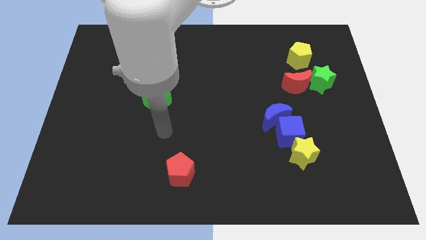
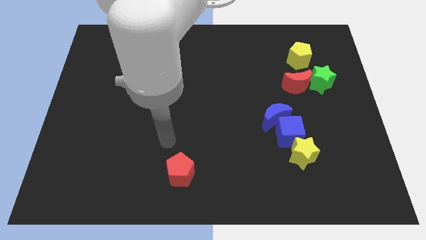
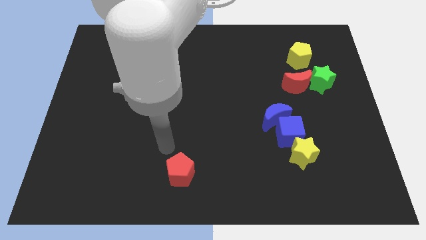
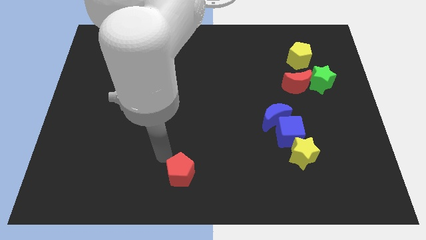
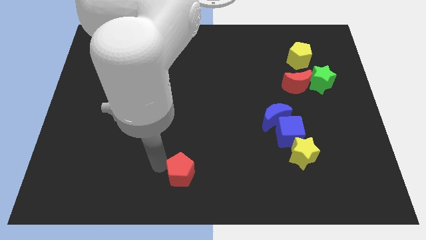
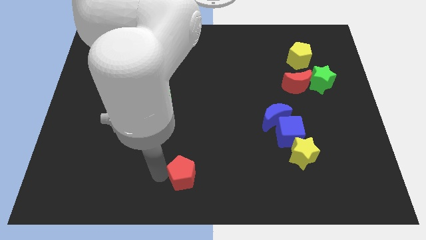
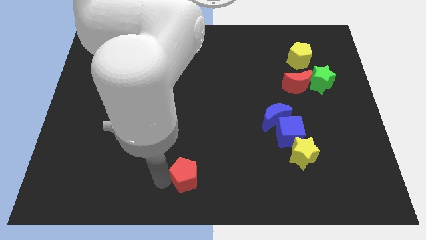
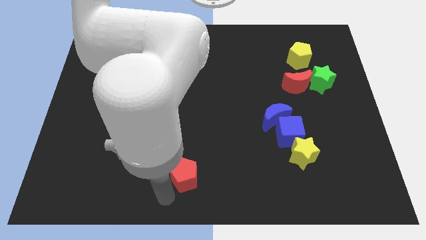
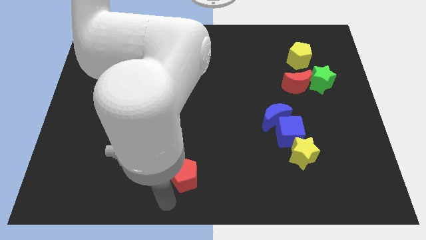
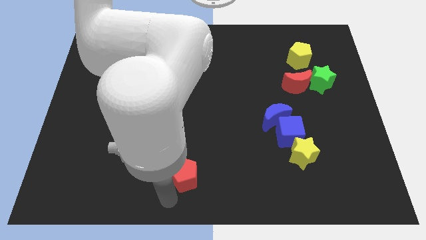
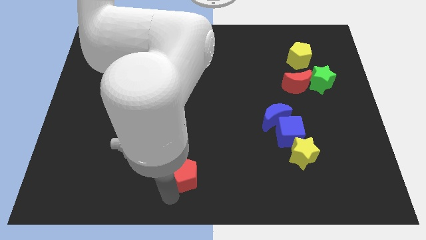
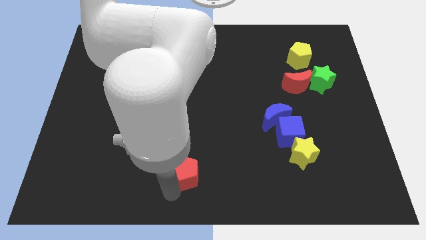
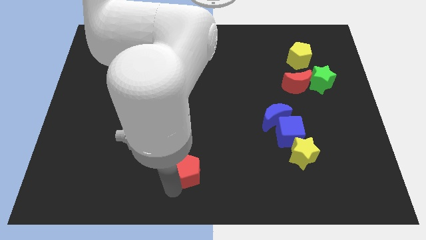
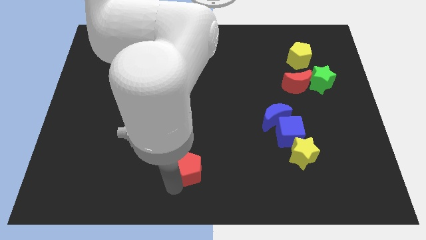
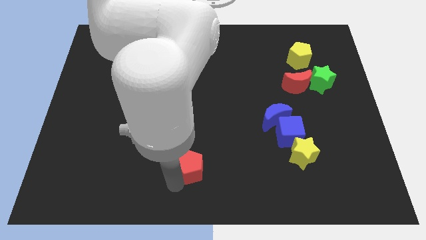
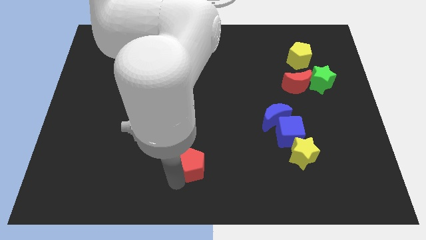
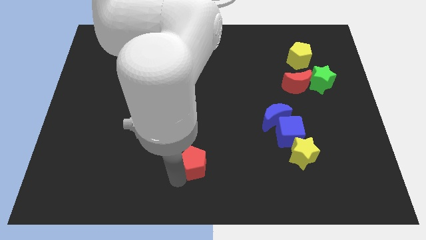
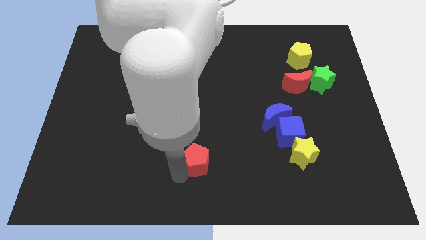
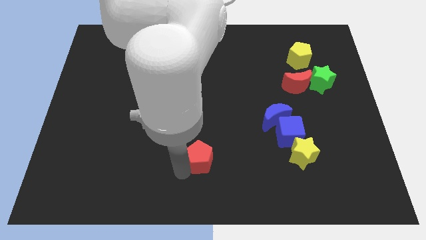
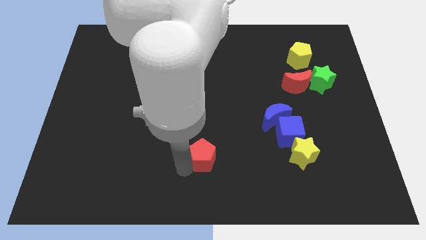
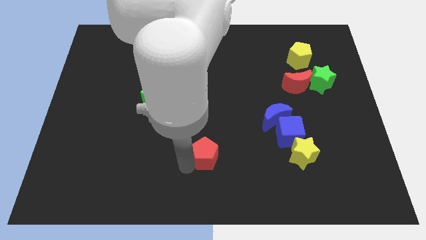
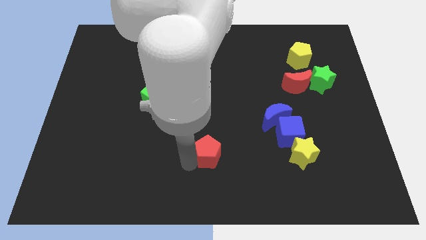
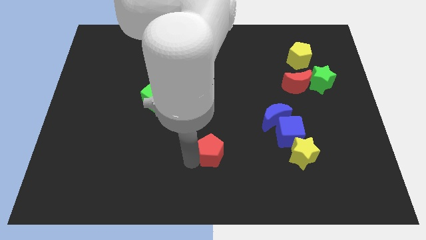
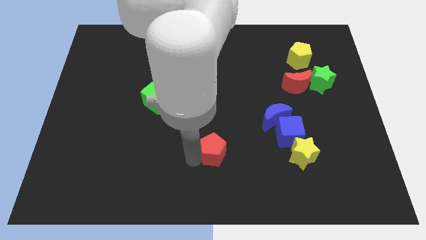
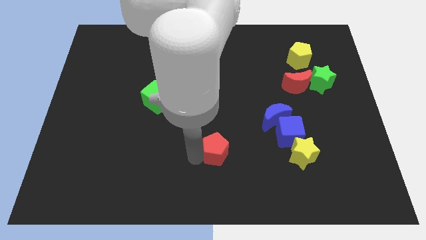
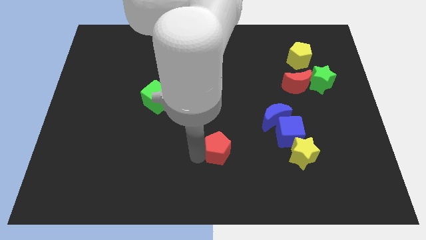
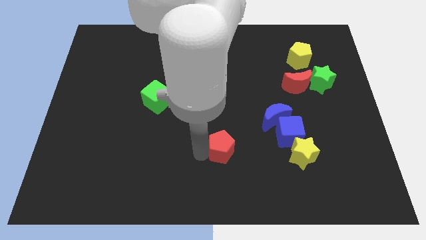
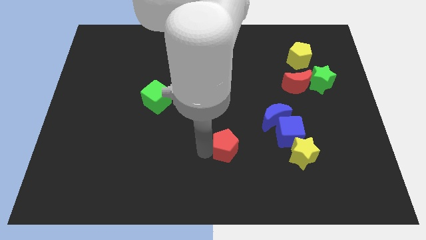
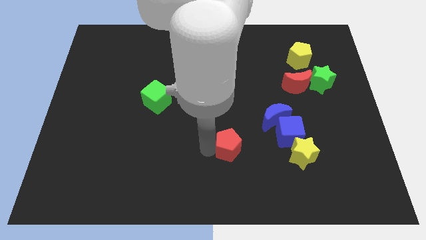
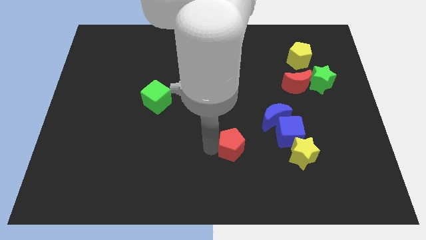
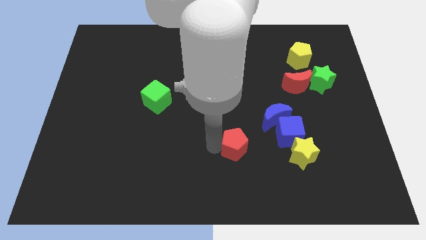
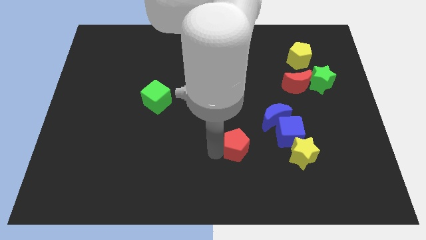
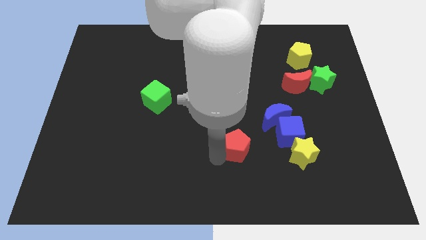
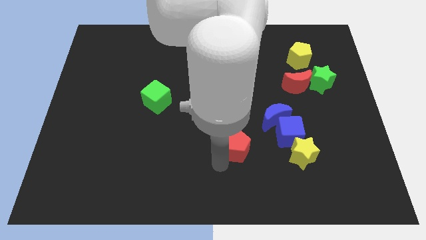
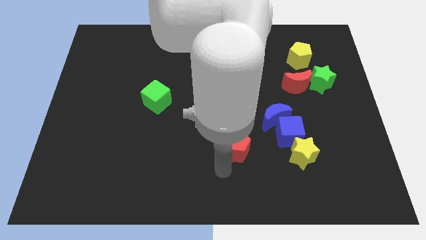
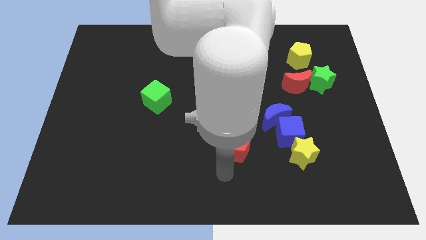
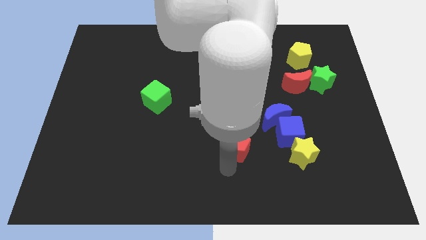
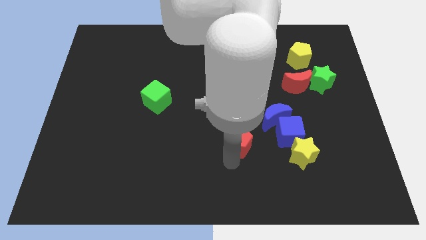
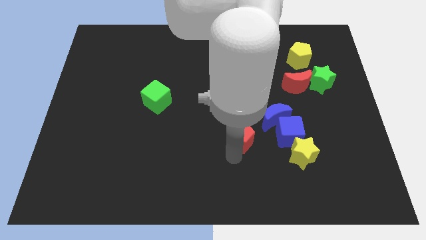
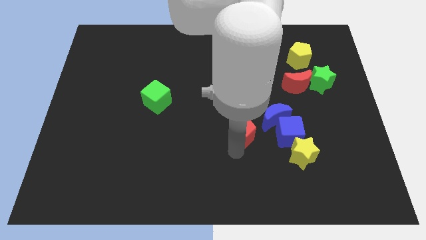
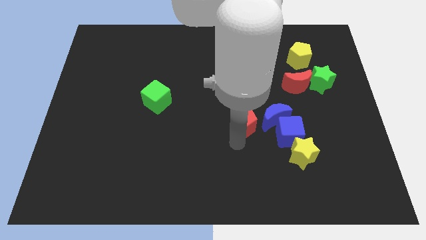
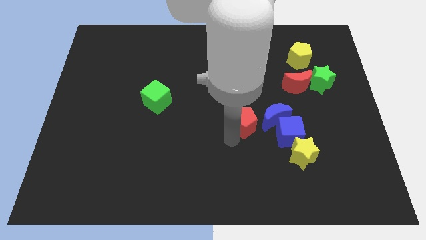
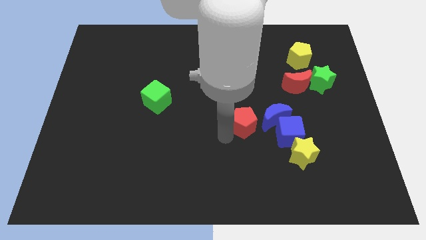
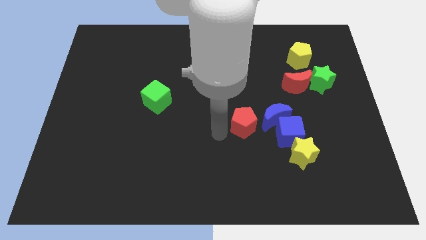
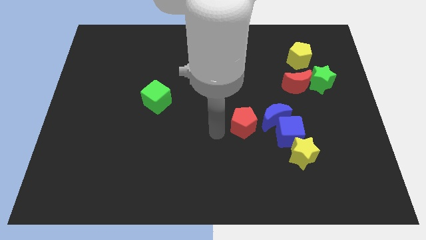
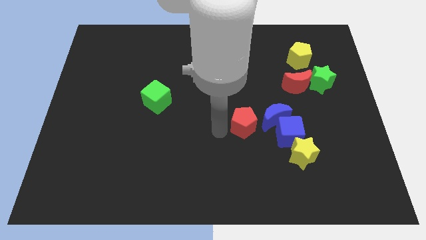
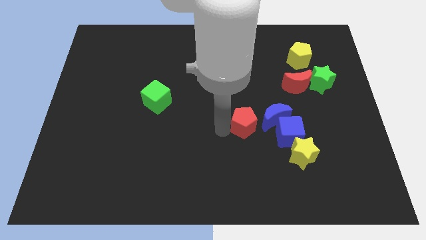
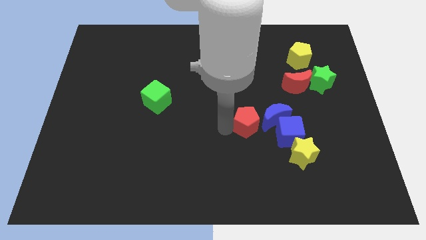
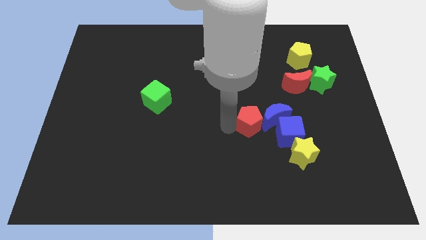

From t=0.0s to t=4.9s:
slide the red pentagon close to the blue moon

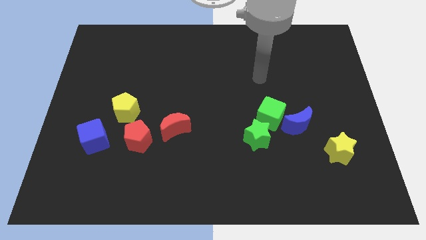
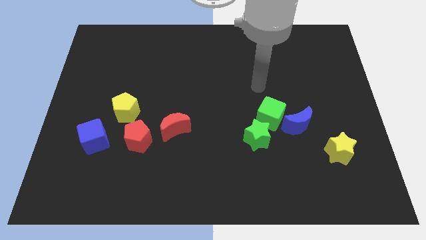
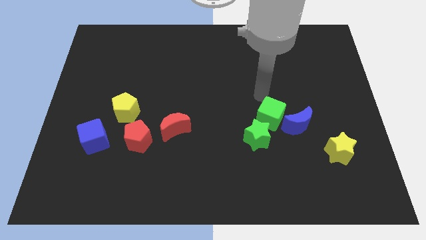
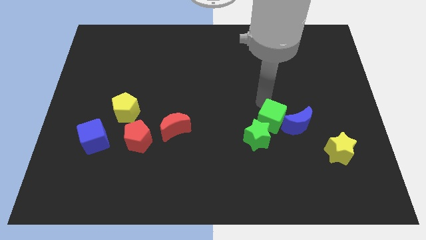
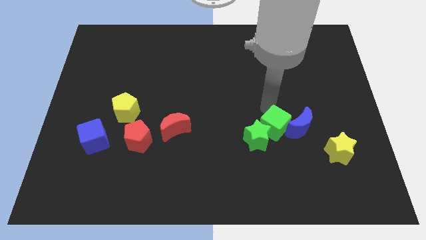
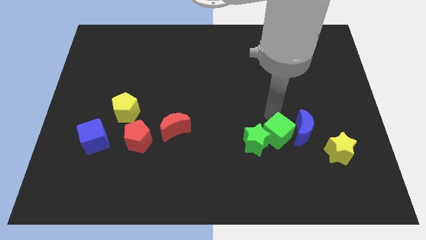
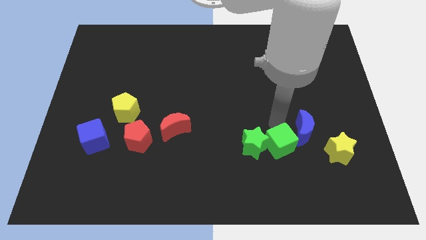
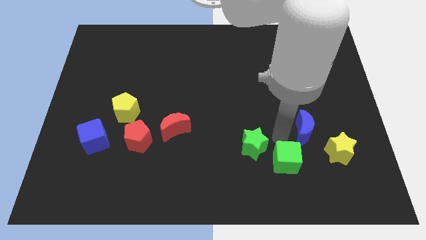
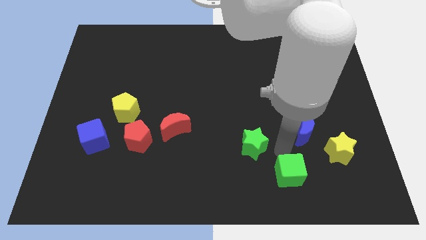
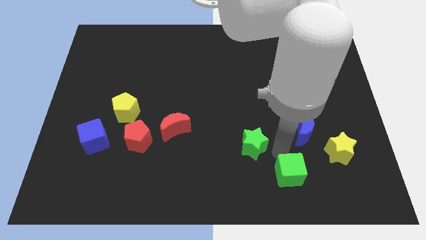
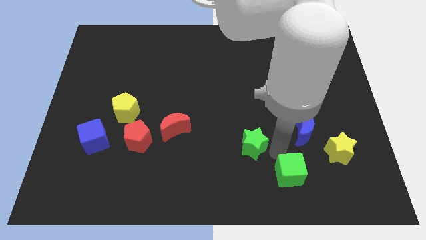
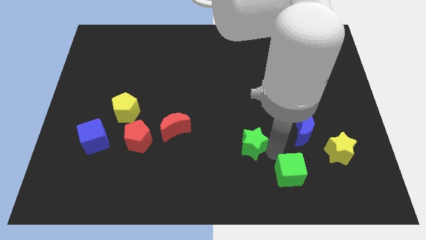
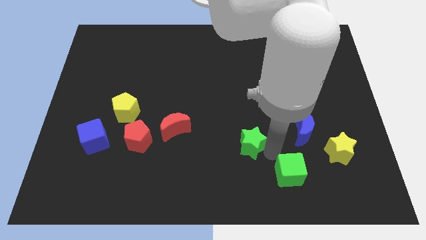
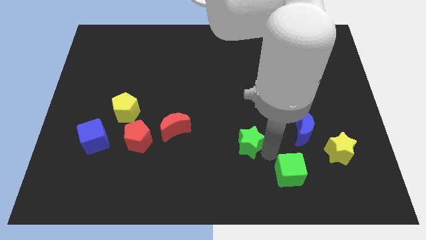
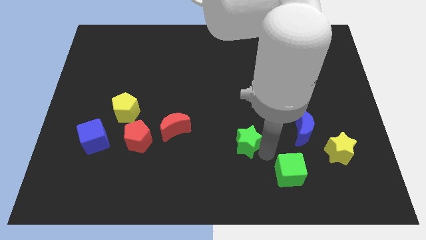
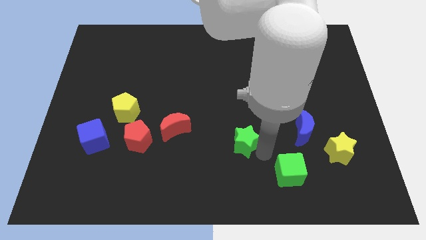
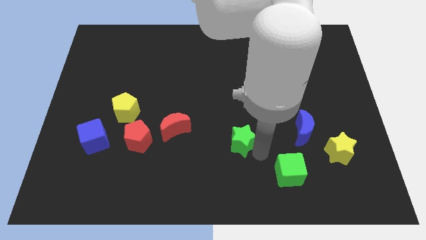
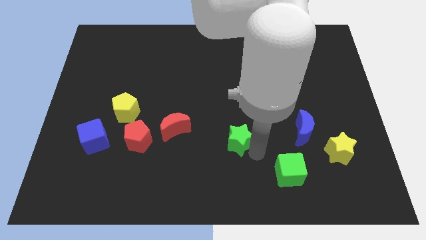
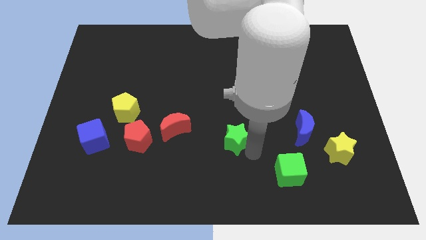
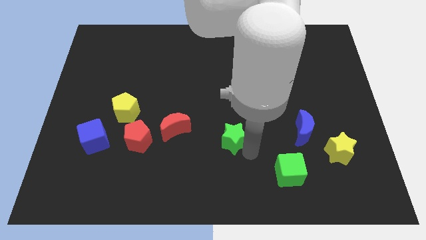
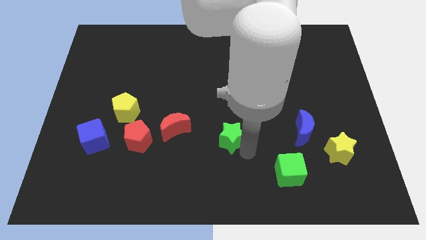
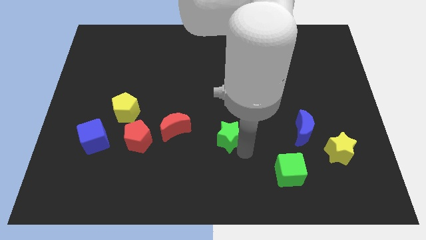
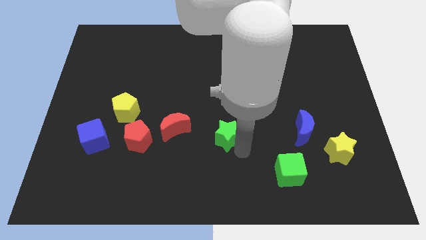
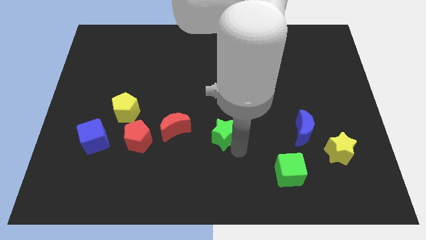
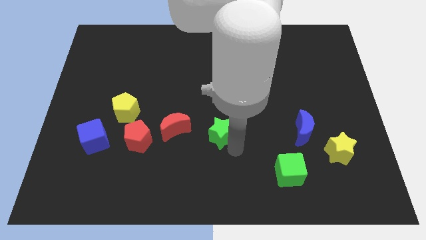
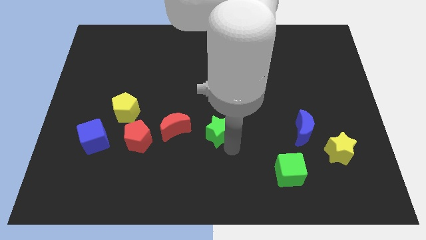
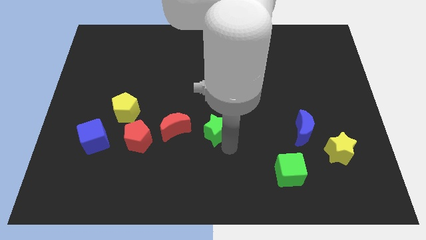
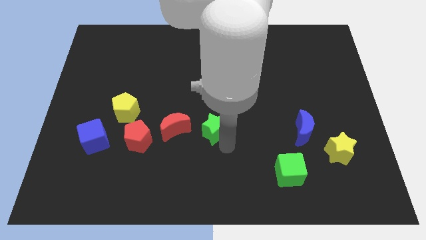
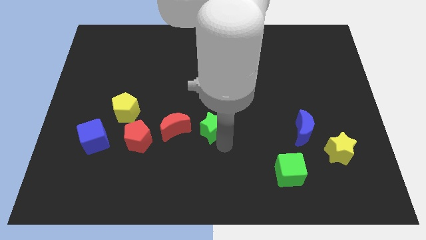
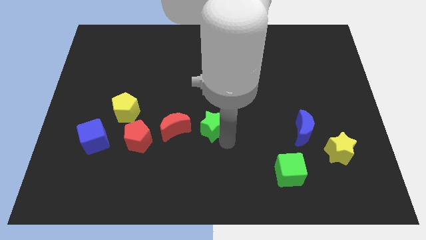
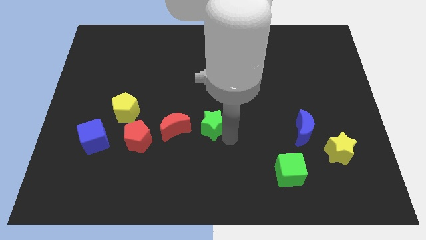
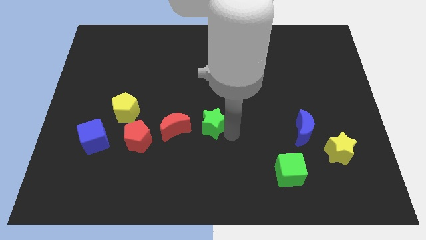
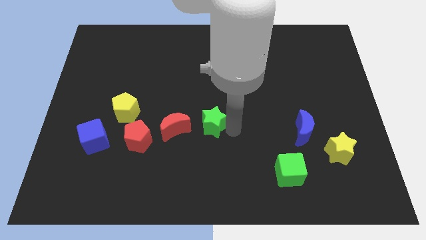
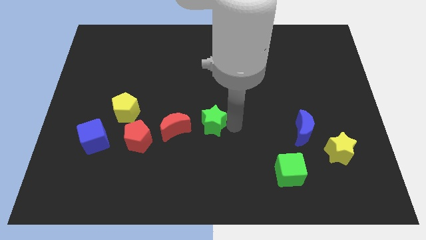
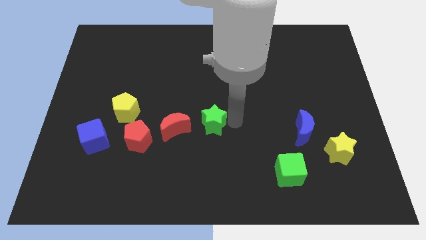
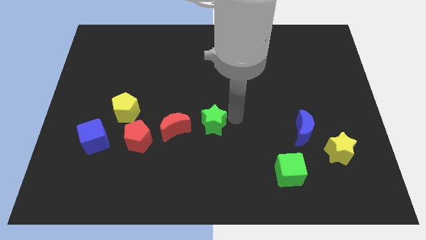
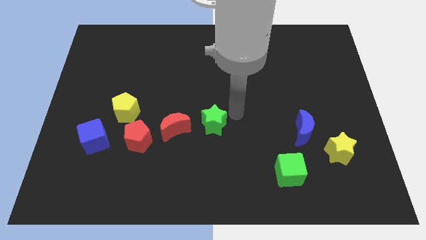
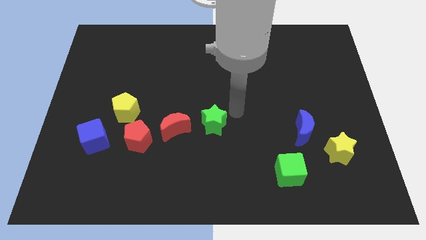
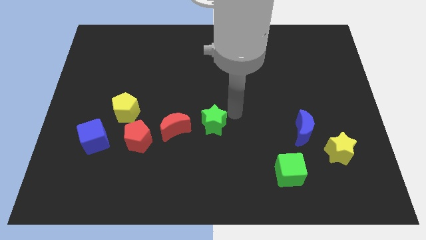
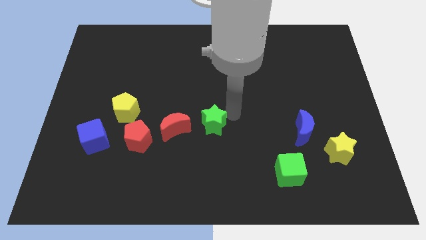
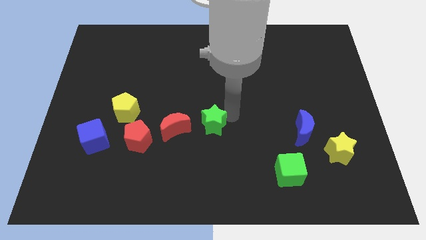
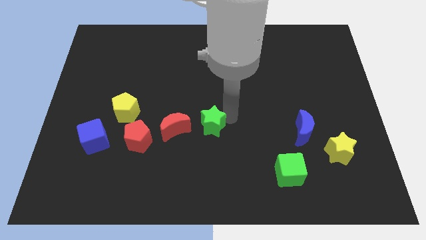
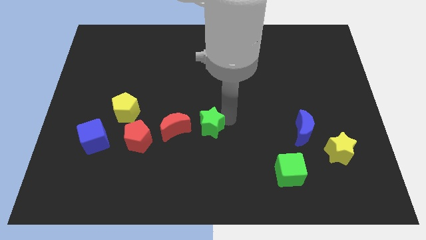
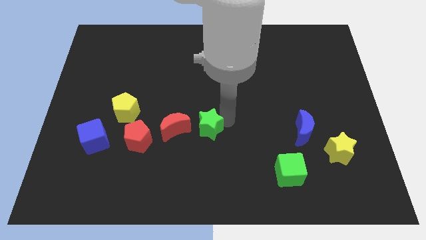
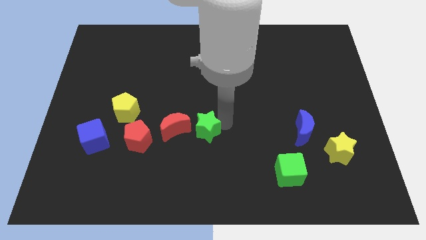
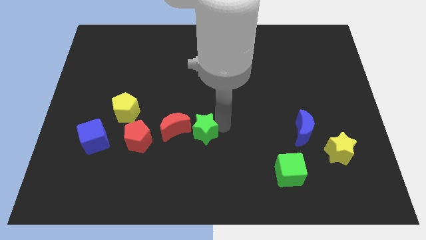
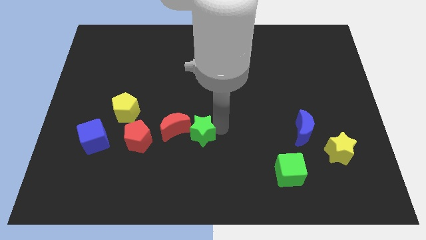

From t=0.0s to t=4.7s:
slide the green star towards the red moon
